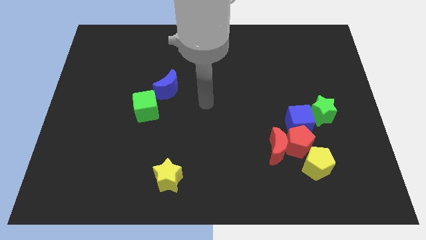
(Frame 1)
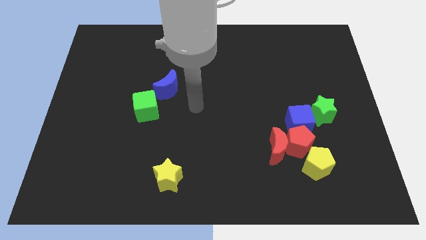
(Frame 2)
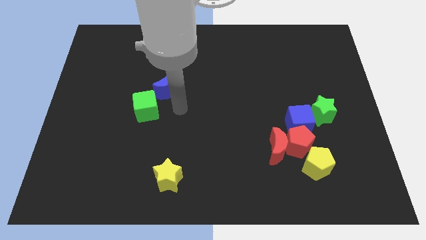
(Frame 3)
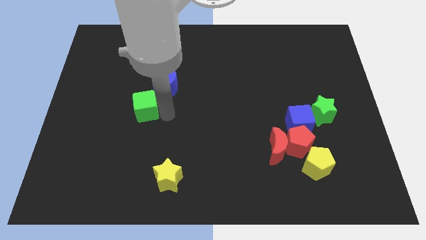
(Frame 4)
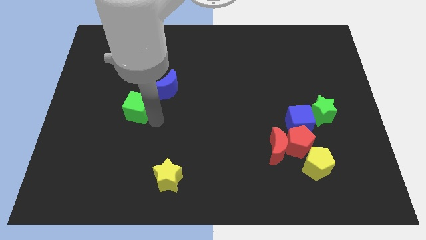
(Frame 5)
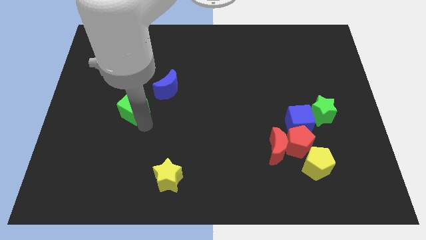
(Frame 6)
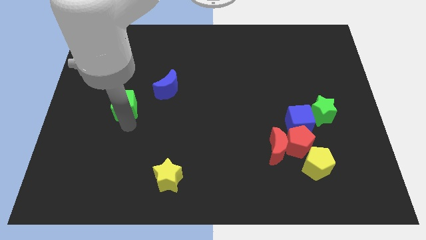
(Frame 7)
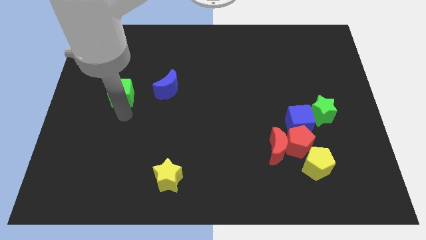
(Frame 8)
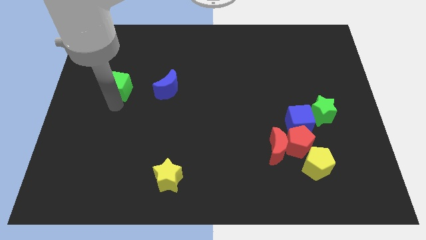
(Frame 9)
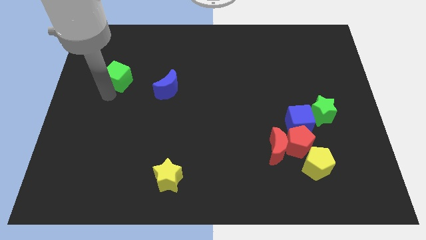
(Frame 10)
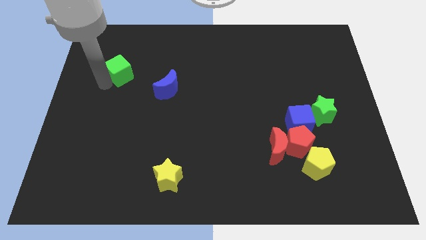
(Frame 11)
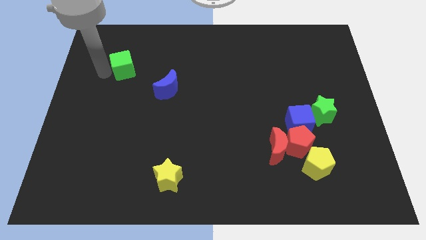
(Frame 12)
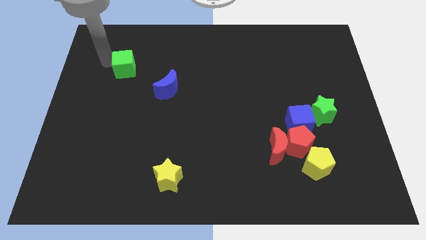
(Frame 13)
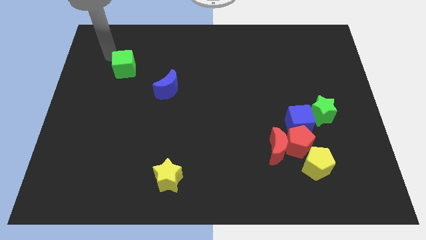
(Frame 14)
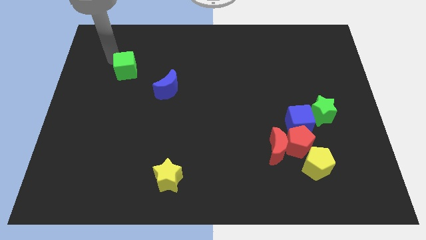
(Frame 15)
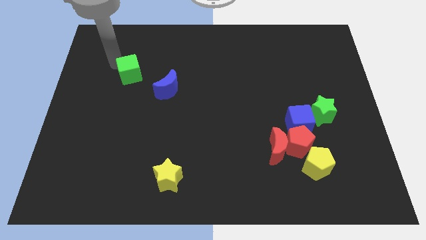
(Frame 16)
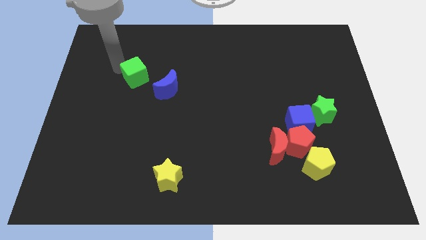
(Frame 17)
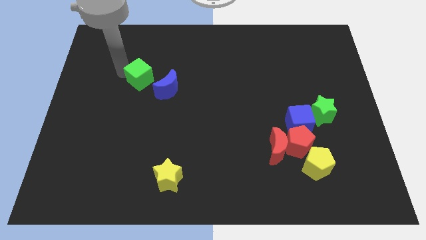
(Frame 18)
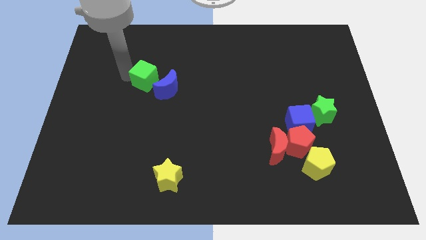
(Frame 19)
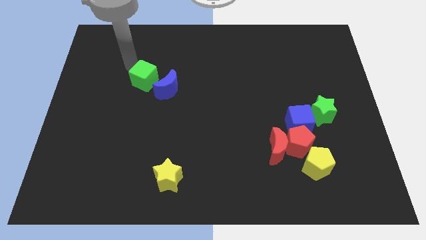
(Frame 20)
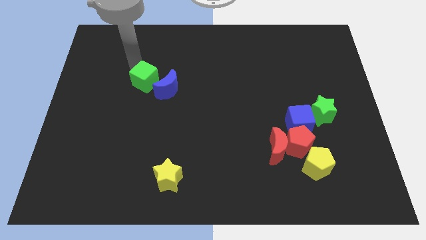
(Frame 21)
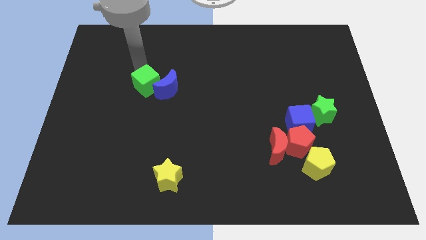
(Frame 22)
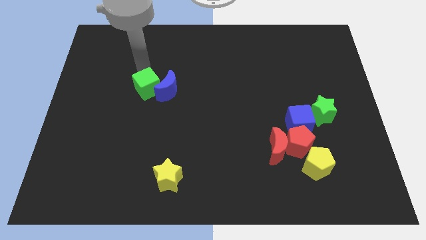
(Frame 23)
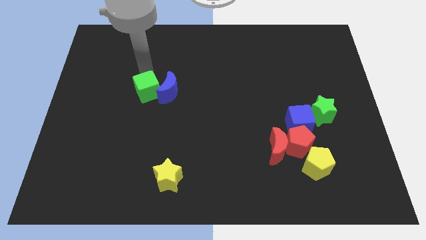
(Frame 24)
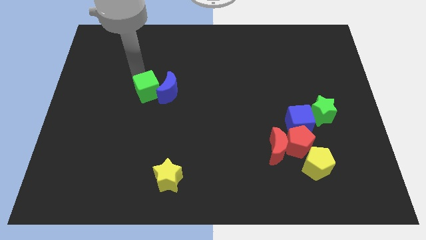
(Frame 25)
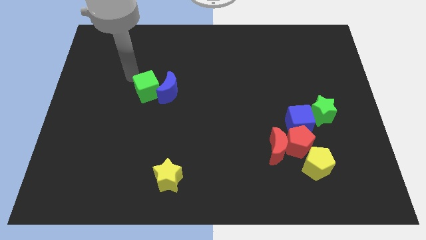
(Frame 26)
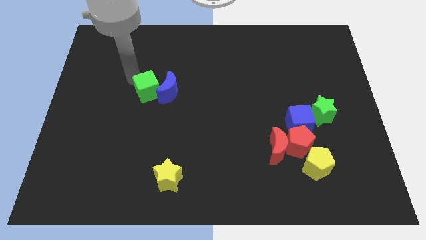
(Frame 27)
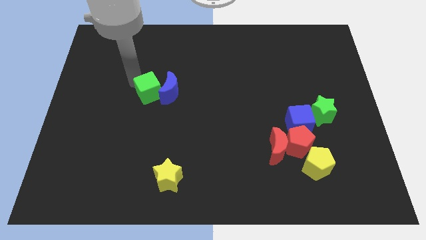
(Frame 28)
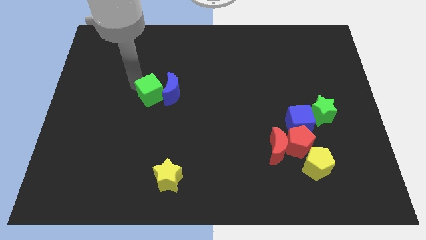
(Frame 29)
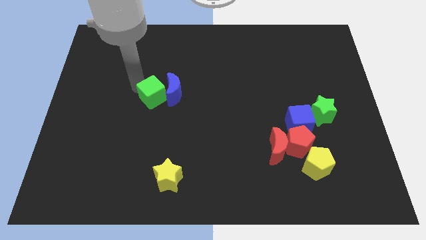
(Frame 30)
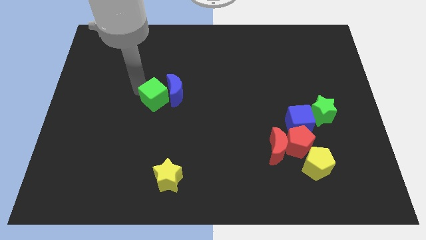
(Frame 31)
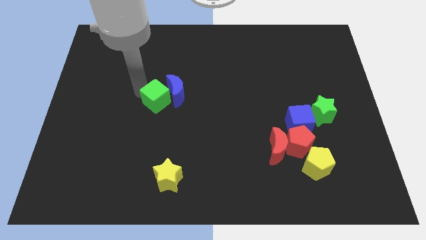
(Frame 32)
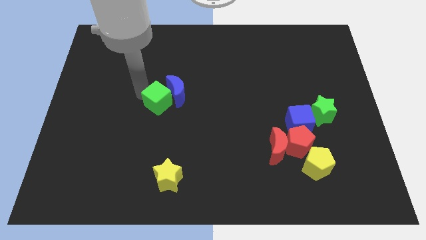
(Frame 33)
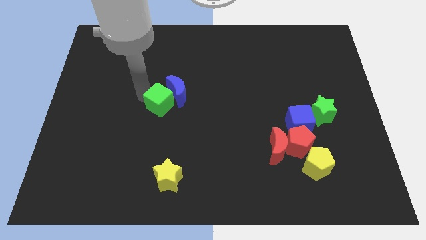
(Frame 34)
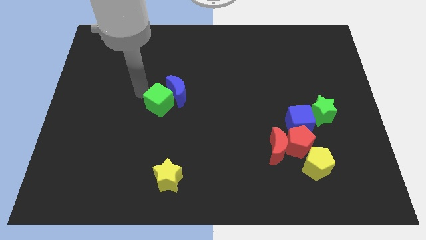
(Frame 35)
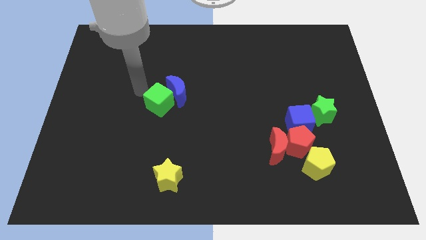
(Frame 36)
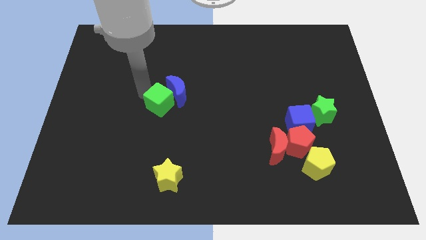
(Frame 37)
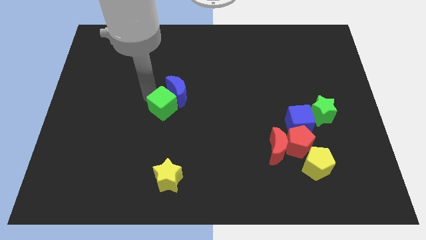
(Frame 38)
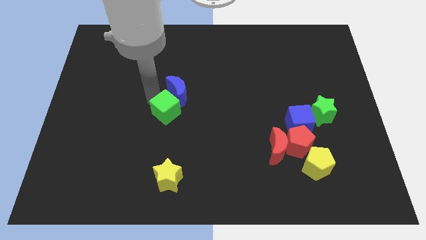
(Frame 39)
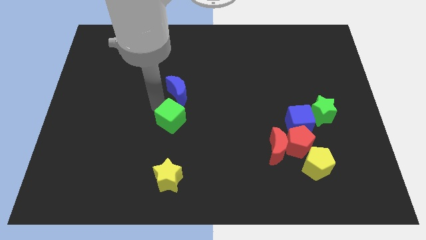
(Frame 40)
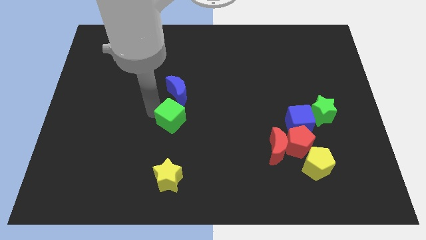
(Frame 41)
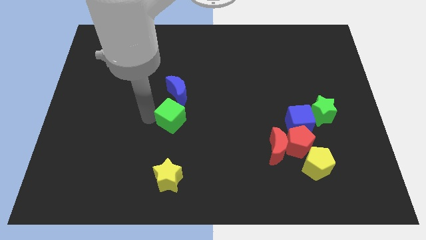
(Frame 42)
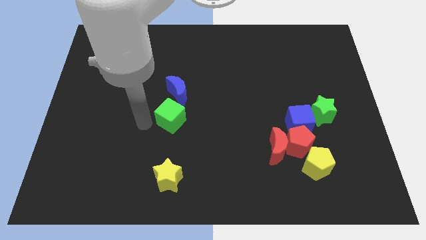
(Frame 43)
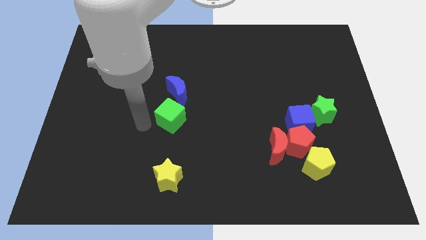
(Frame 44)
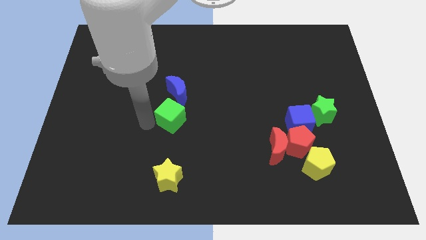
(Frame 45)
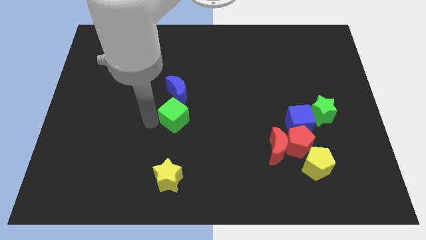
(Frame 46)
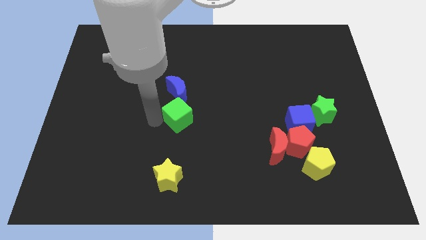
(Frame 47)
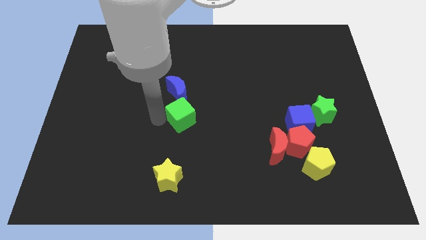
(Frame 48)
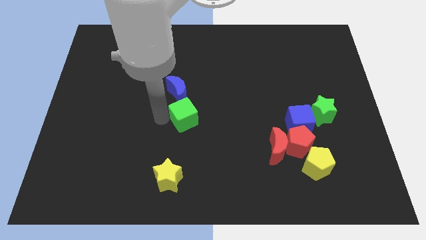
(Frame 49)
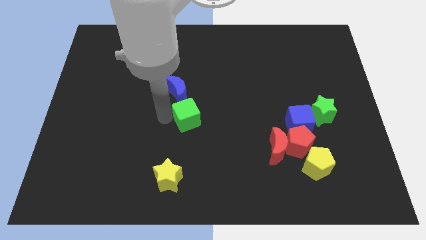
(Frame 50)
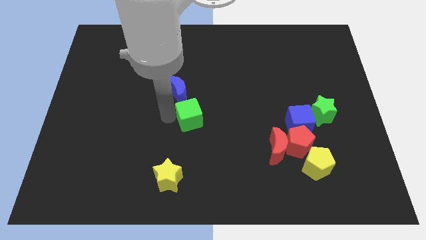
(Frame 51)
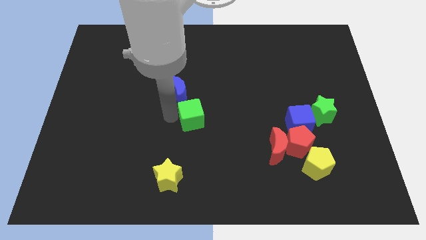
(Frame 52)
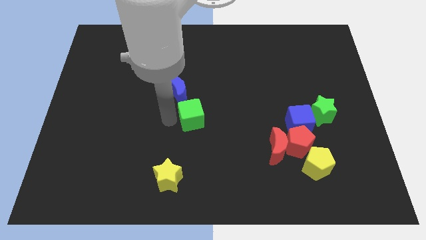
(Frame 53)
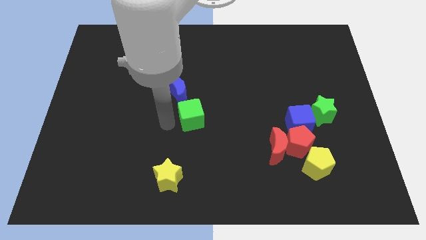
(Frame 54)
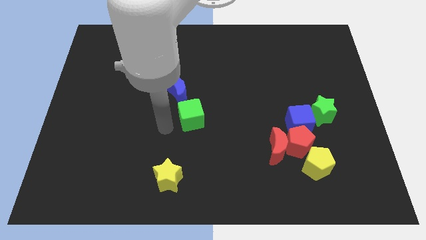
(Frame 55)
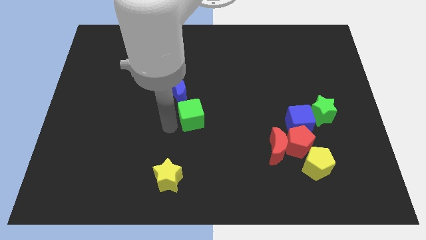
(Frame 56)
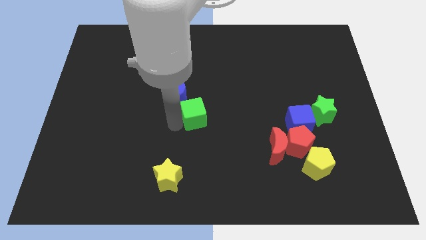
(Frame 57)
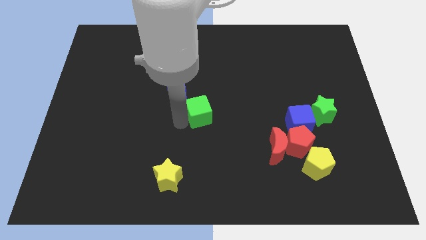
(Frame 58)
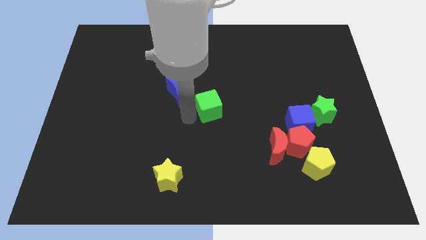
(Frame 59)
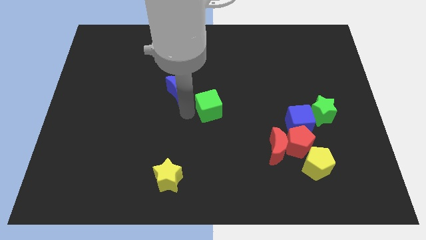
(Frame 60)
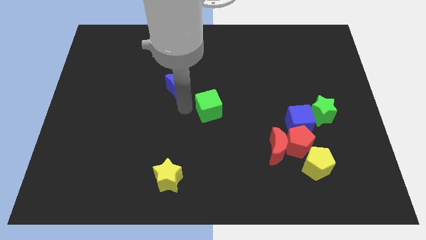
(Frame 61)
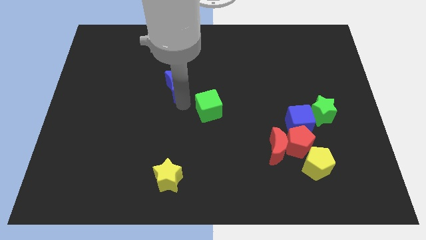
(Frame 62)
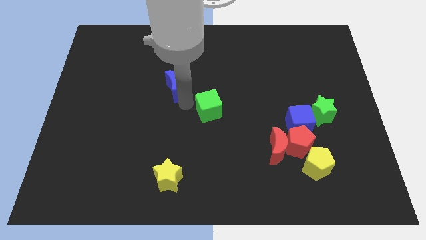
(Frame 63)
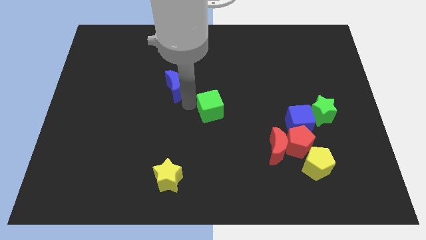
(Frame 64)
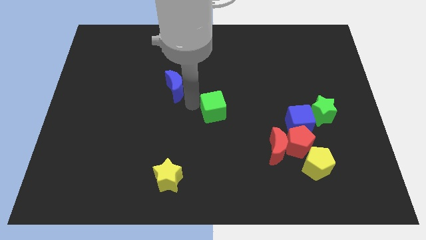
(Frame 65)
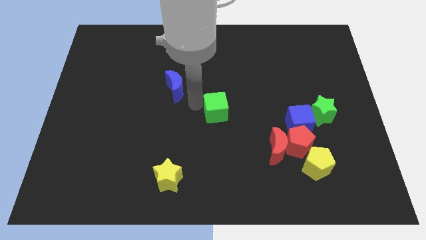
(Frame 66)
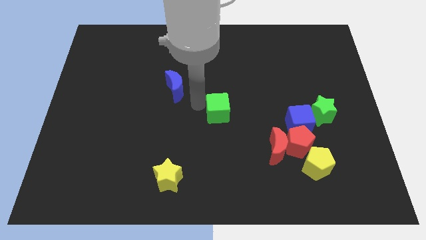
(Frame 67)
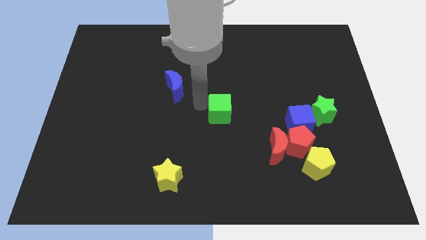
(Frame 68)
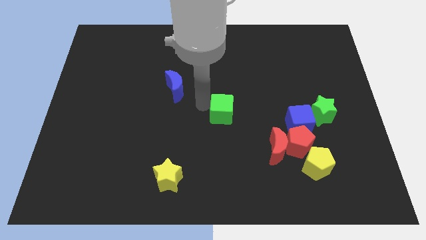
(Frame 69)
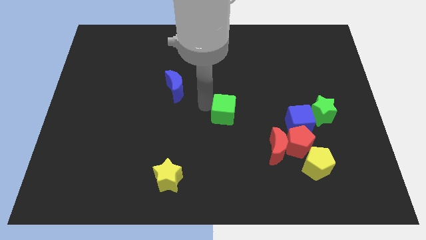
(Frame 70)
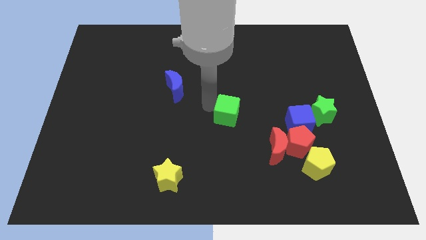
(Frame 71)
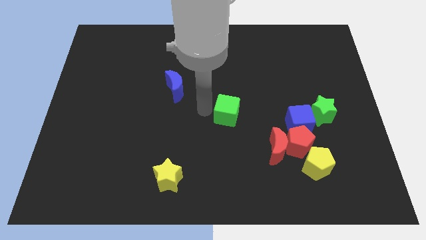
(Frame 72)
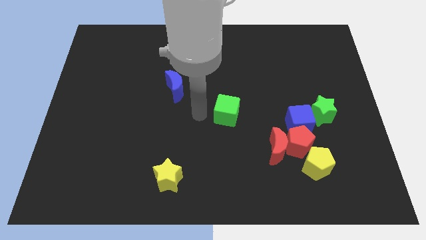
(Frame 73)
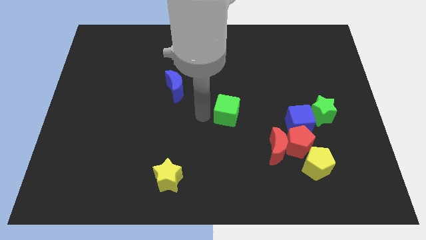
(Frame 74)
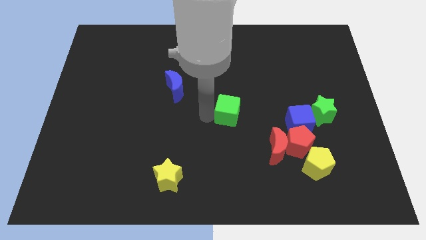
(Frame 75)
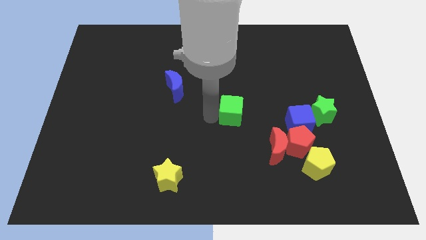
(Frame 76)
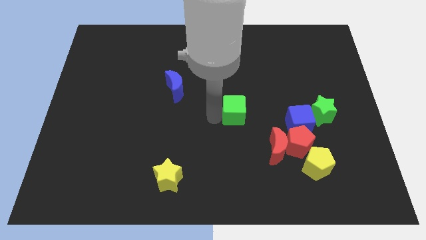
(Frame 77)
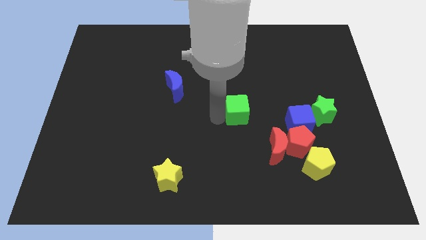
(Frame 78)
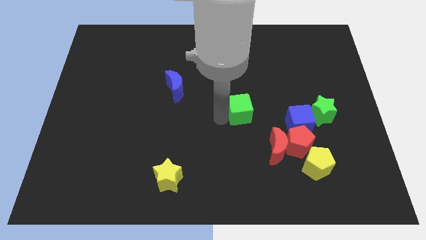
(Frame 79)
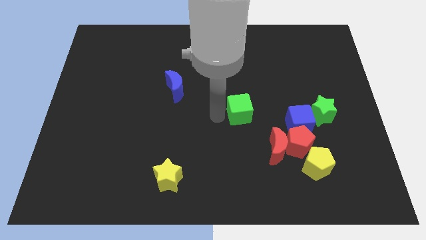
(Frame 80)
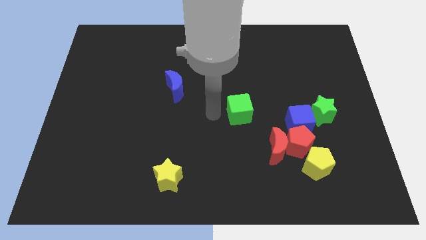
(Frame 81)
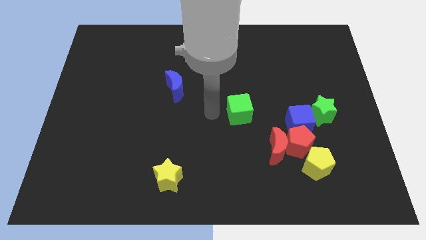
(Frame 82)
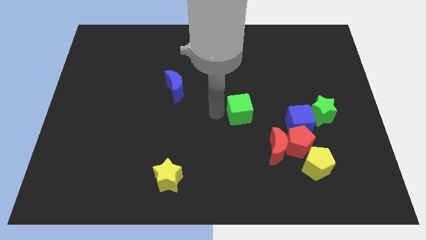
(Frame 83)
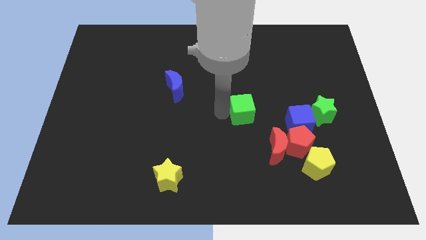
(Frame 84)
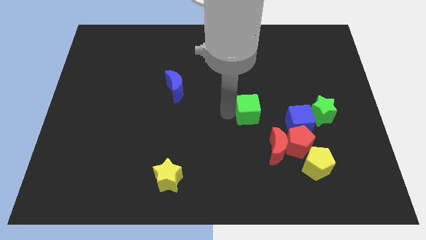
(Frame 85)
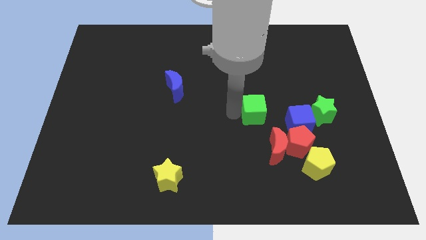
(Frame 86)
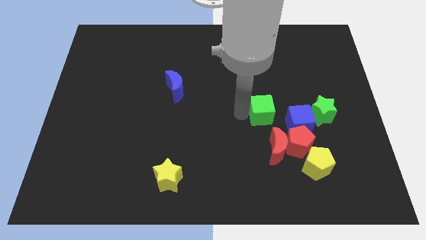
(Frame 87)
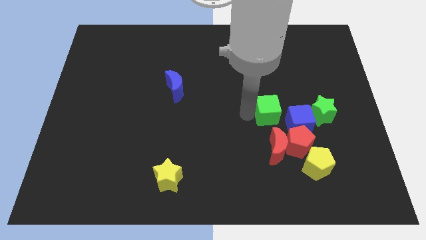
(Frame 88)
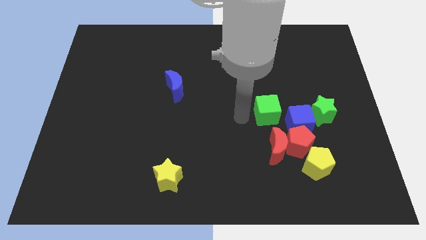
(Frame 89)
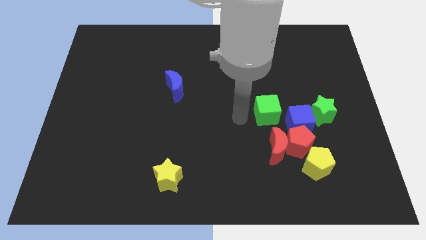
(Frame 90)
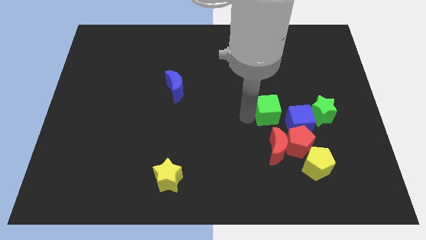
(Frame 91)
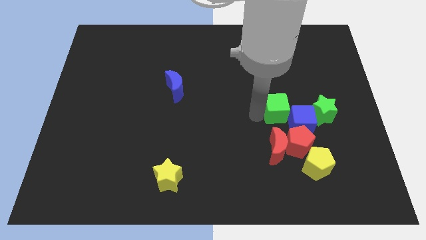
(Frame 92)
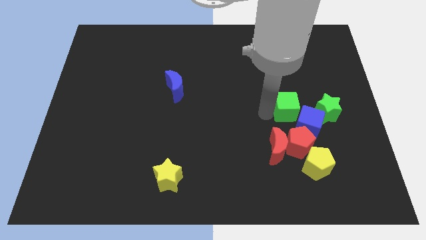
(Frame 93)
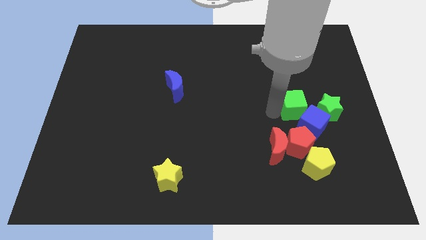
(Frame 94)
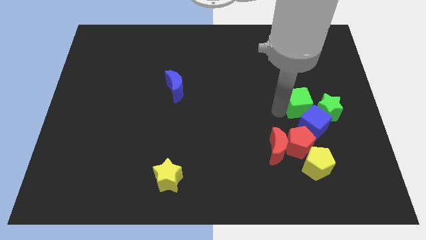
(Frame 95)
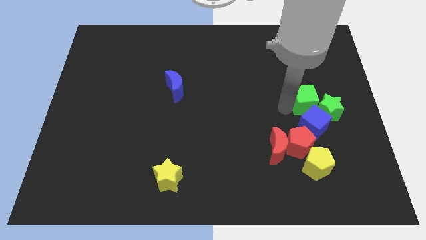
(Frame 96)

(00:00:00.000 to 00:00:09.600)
move the green cube close to the green star
